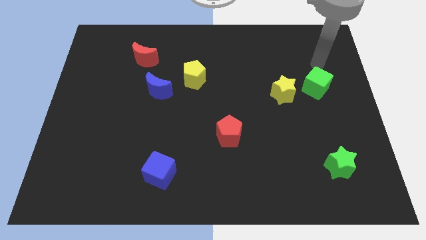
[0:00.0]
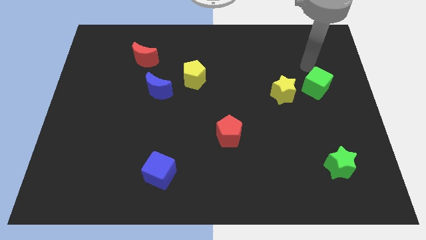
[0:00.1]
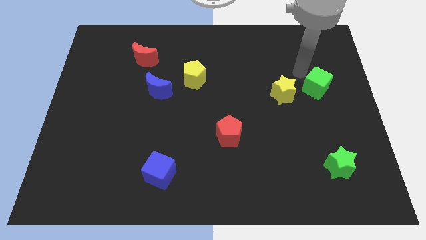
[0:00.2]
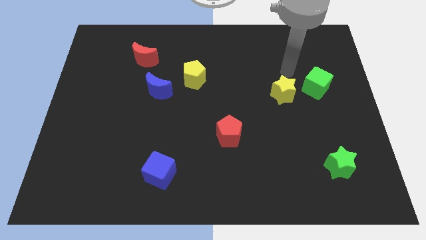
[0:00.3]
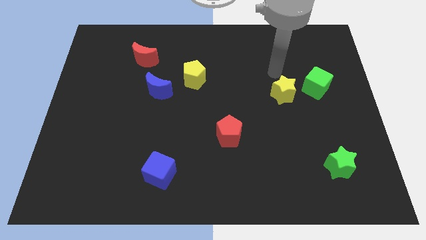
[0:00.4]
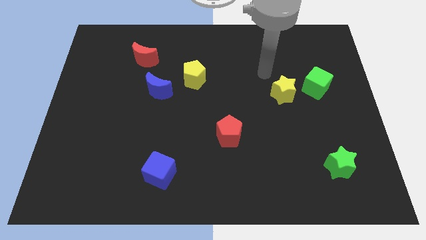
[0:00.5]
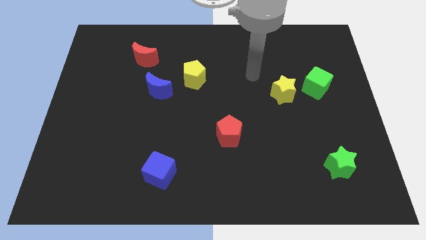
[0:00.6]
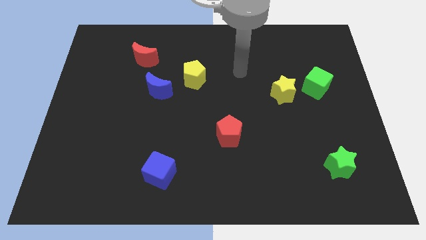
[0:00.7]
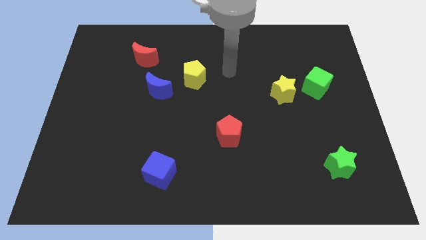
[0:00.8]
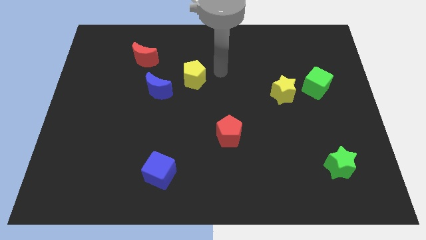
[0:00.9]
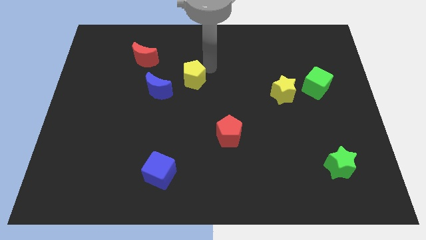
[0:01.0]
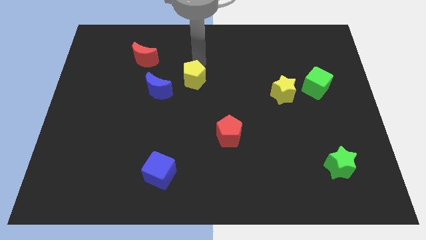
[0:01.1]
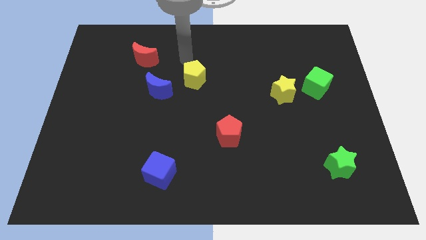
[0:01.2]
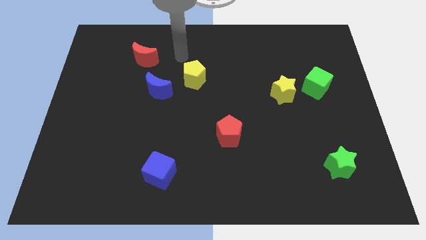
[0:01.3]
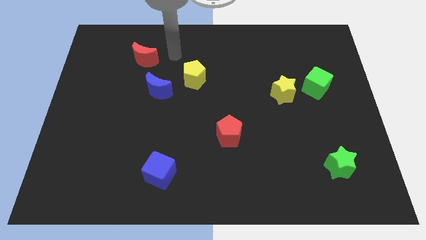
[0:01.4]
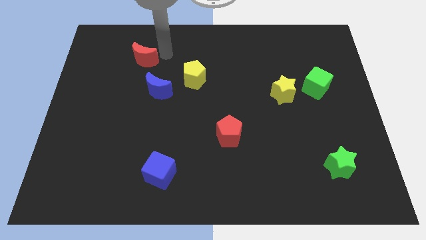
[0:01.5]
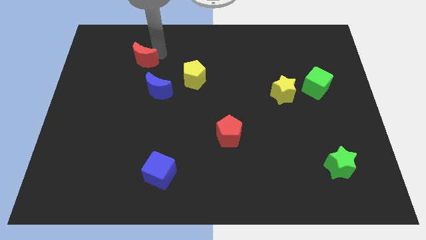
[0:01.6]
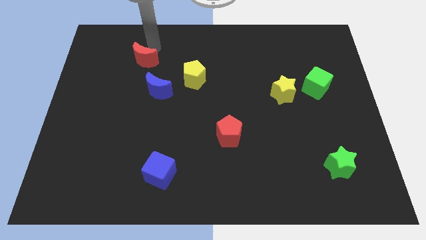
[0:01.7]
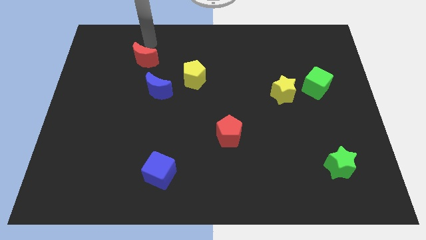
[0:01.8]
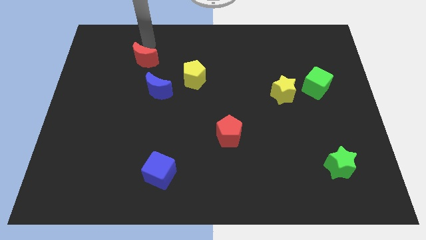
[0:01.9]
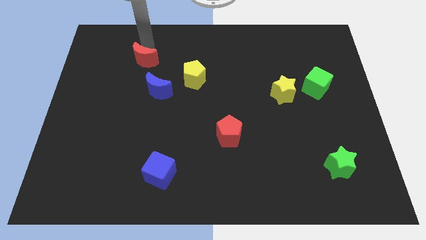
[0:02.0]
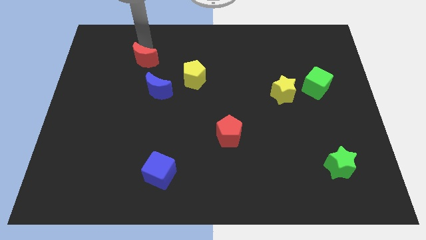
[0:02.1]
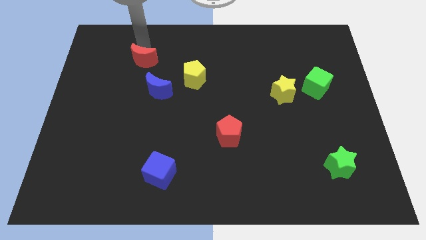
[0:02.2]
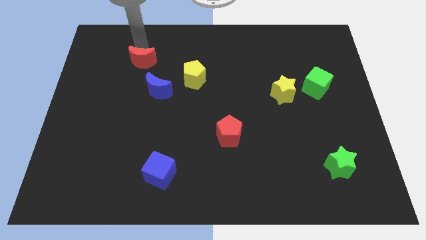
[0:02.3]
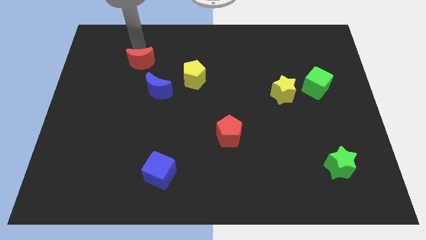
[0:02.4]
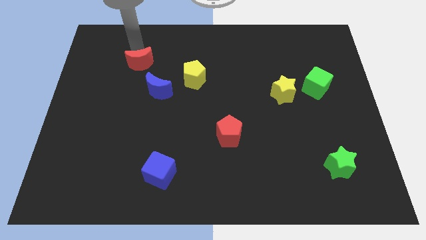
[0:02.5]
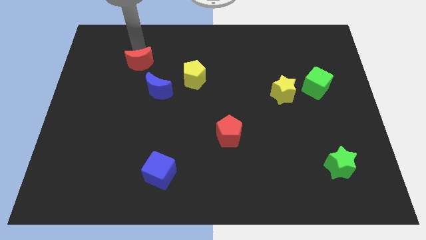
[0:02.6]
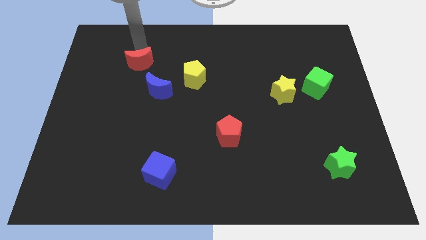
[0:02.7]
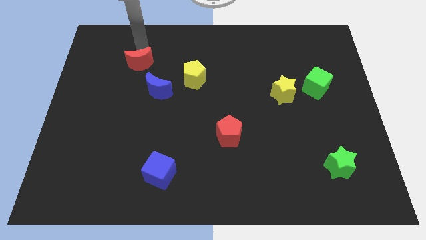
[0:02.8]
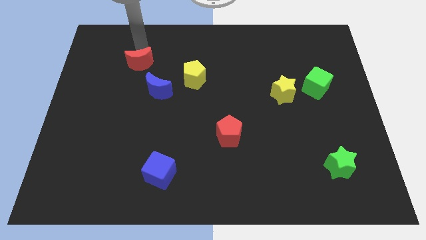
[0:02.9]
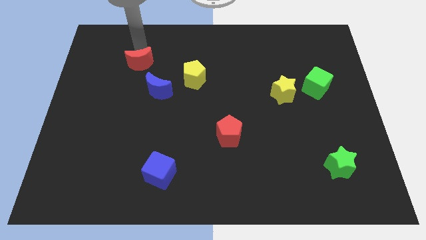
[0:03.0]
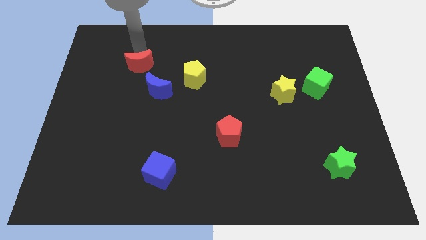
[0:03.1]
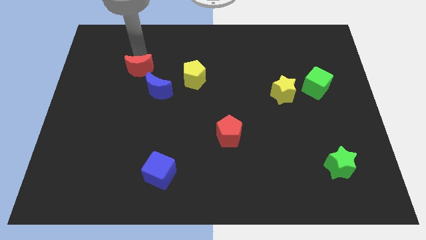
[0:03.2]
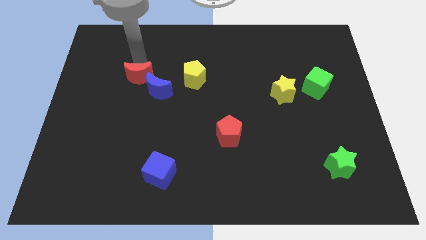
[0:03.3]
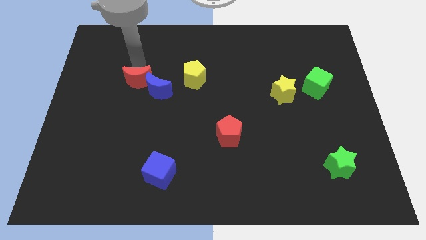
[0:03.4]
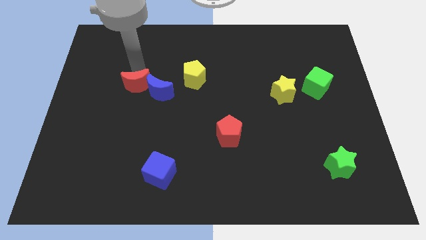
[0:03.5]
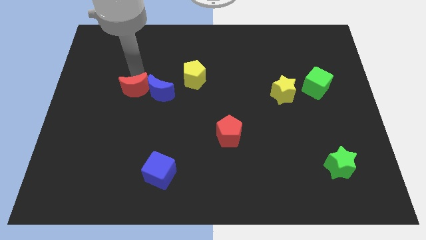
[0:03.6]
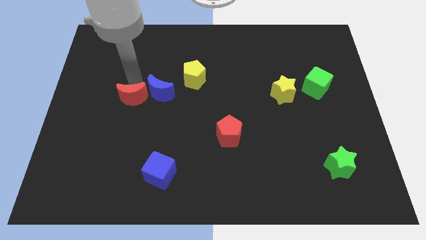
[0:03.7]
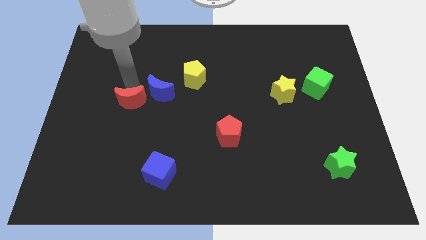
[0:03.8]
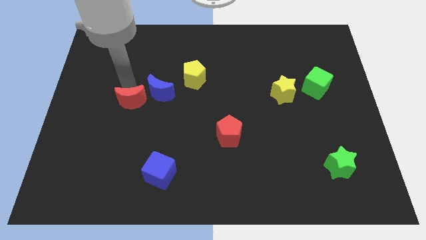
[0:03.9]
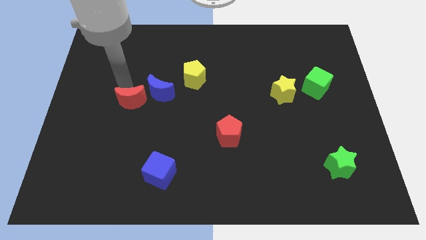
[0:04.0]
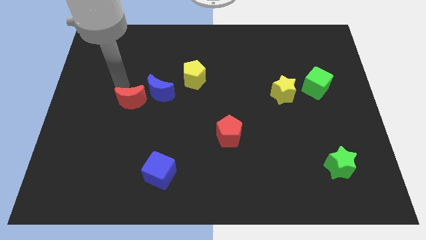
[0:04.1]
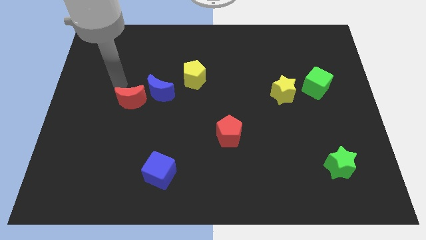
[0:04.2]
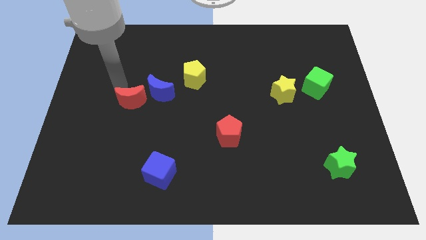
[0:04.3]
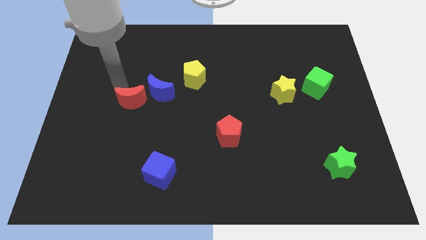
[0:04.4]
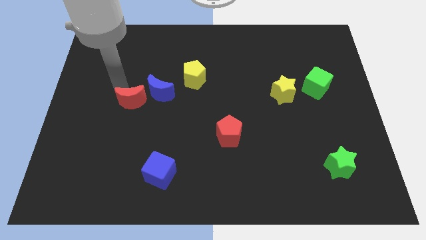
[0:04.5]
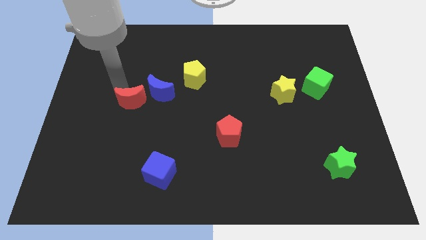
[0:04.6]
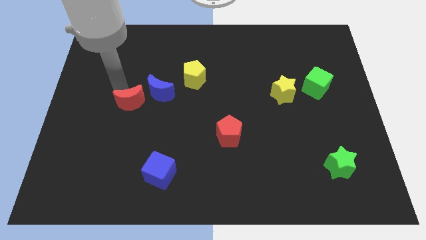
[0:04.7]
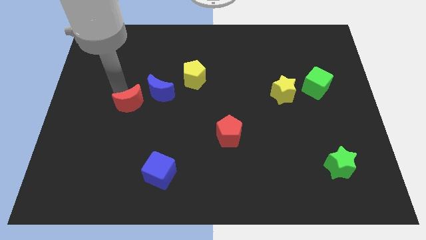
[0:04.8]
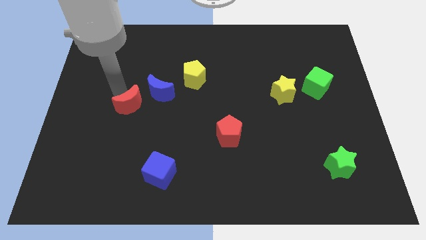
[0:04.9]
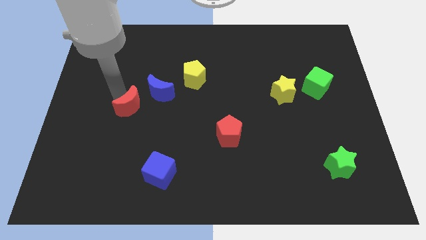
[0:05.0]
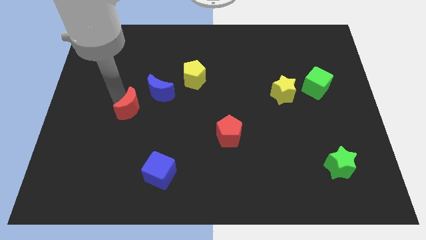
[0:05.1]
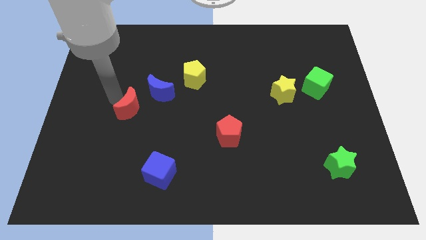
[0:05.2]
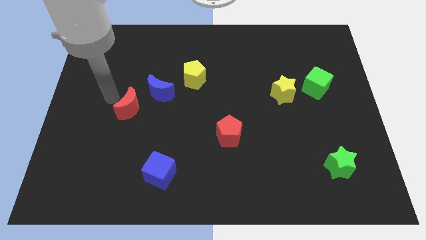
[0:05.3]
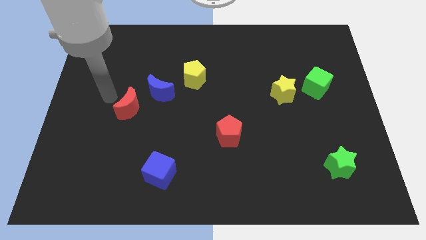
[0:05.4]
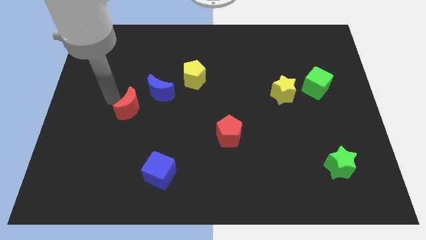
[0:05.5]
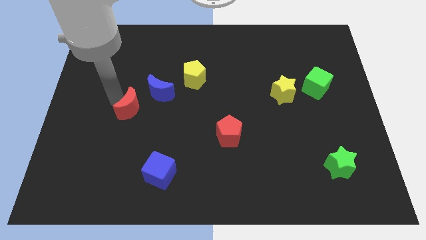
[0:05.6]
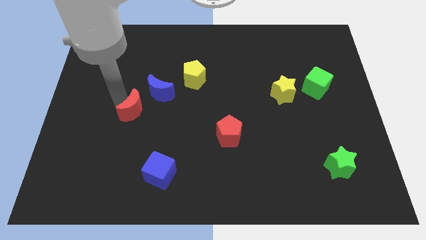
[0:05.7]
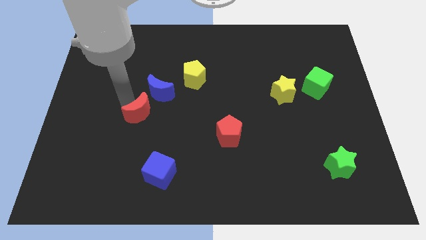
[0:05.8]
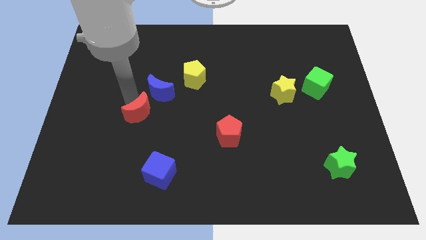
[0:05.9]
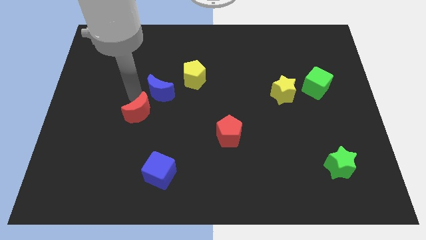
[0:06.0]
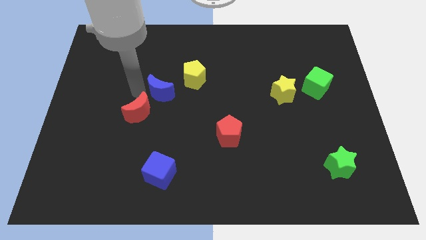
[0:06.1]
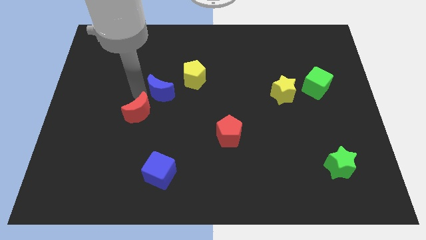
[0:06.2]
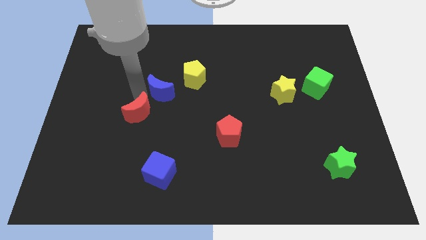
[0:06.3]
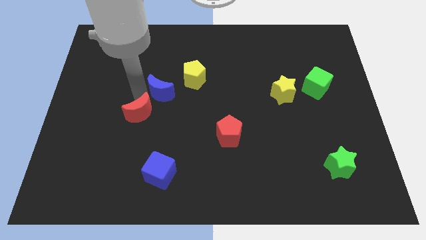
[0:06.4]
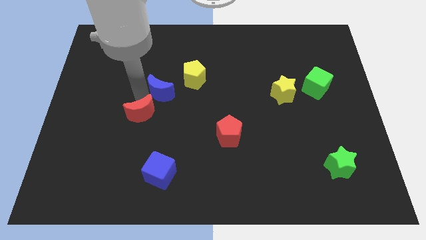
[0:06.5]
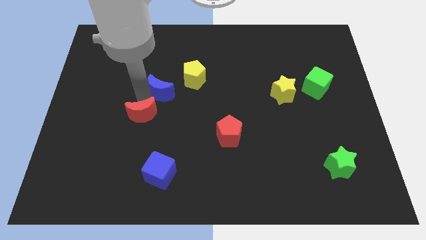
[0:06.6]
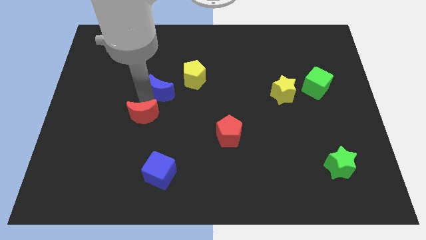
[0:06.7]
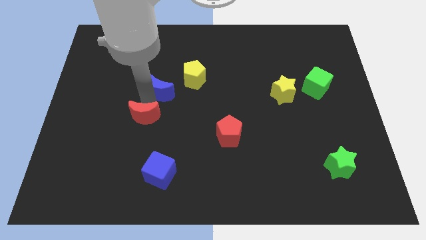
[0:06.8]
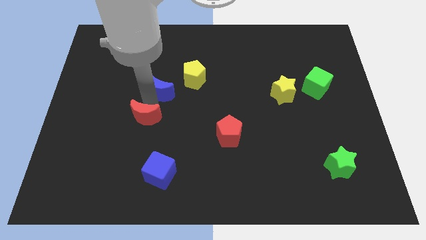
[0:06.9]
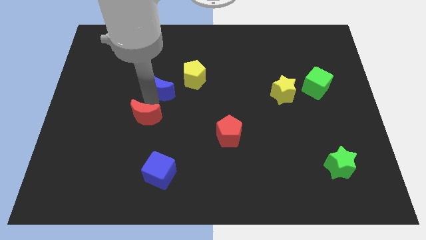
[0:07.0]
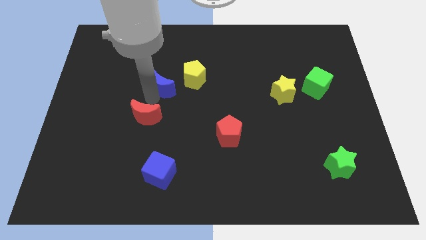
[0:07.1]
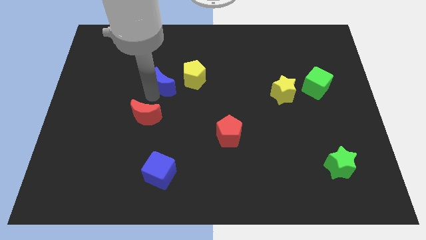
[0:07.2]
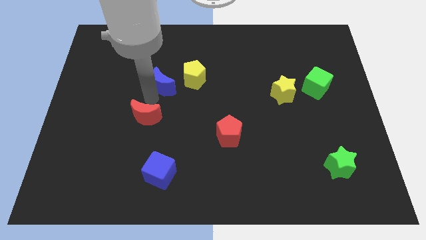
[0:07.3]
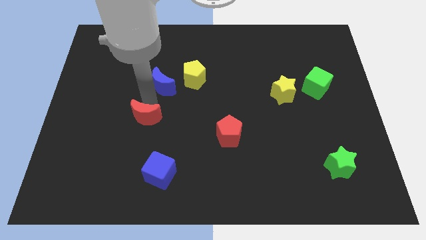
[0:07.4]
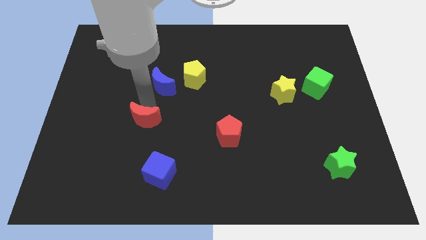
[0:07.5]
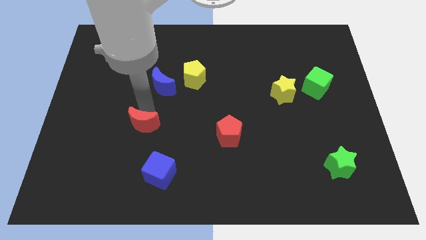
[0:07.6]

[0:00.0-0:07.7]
move the red moon downwards
